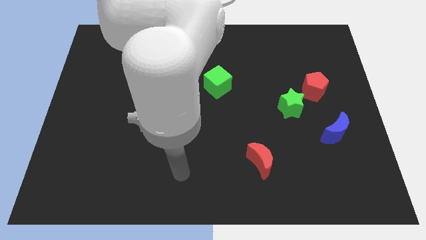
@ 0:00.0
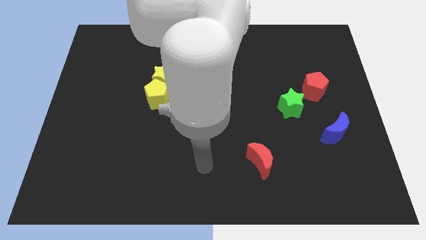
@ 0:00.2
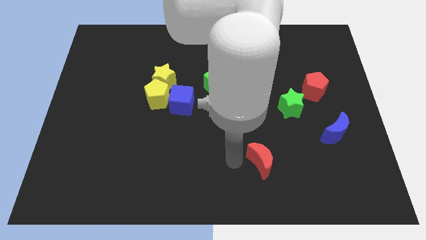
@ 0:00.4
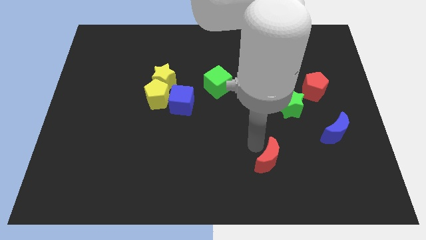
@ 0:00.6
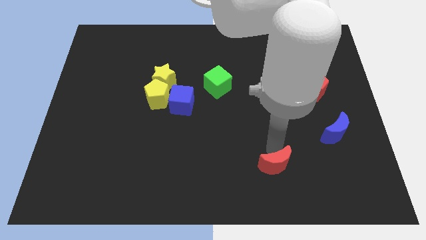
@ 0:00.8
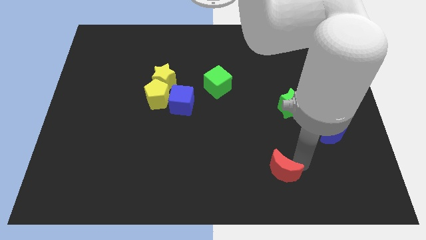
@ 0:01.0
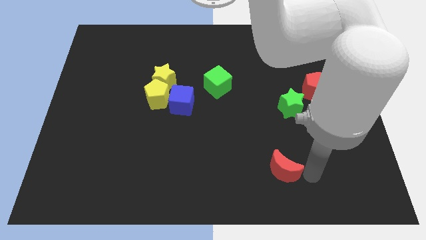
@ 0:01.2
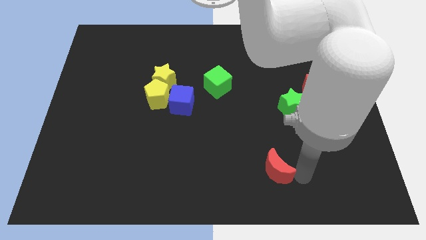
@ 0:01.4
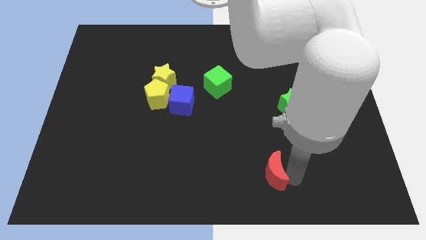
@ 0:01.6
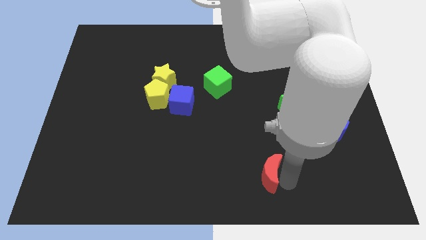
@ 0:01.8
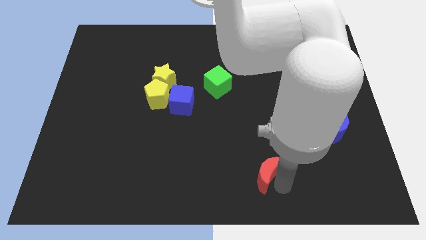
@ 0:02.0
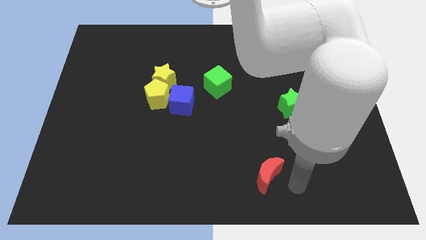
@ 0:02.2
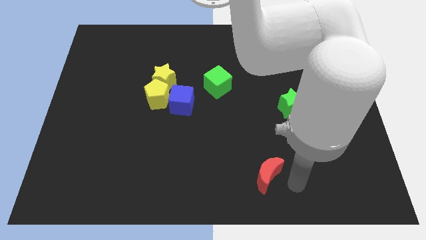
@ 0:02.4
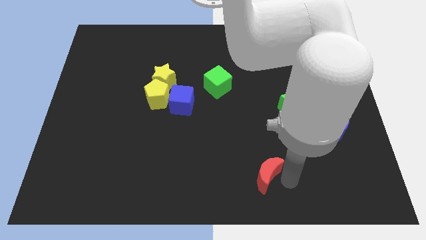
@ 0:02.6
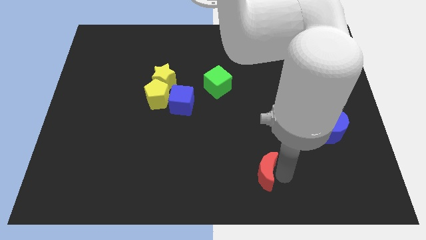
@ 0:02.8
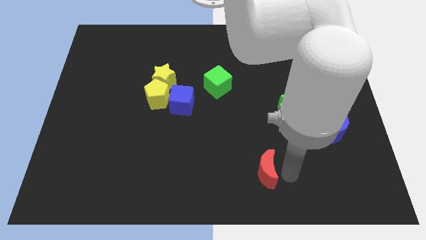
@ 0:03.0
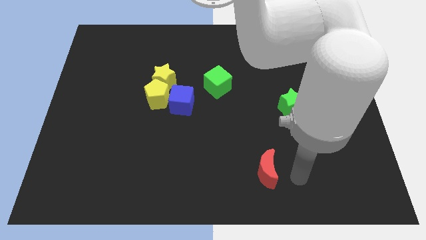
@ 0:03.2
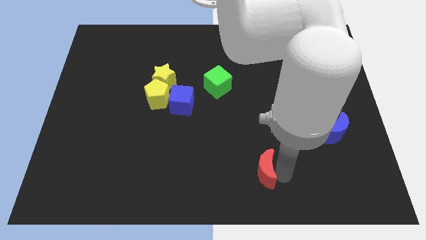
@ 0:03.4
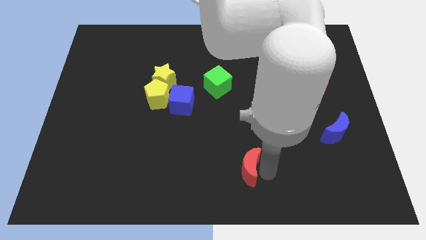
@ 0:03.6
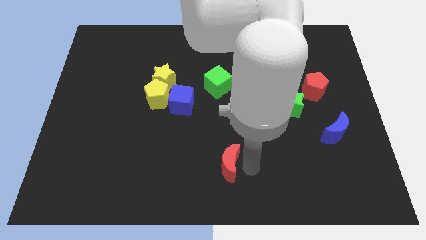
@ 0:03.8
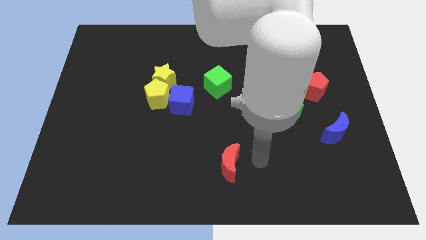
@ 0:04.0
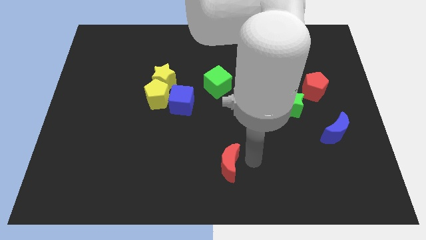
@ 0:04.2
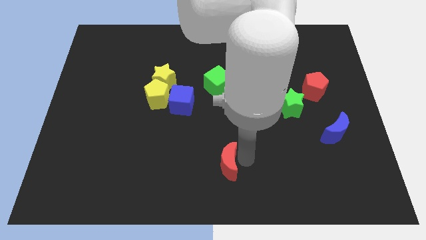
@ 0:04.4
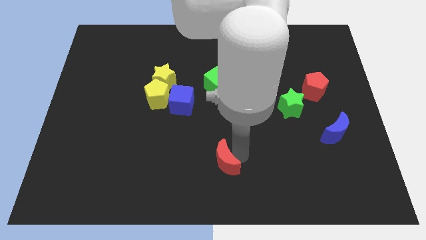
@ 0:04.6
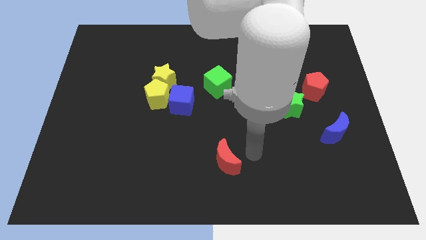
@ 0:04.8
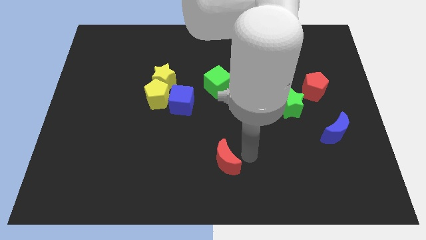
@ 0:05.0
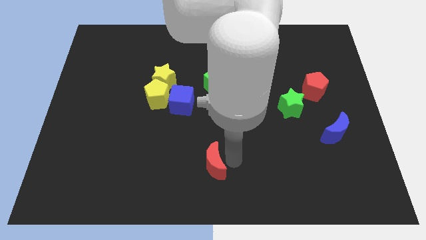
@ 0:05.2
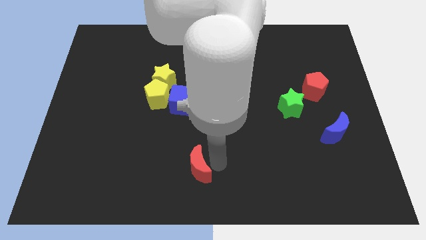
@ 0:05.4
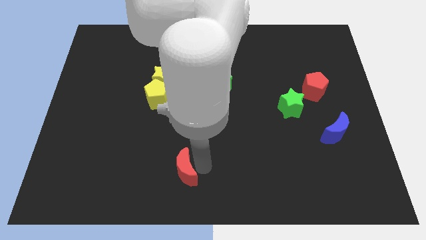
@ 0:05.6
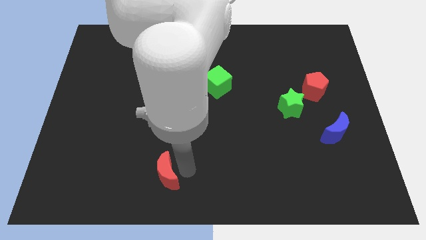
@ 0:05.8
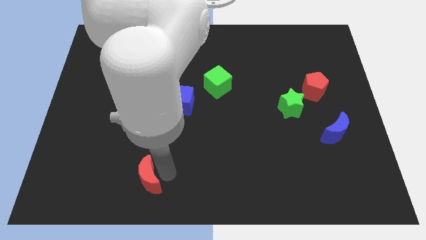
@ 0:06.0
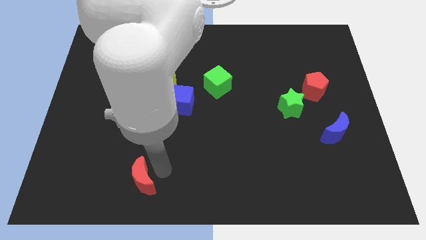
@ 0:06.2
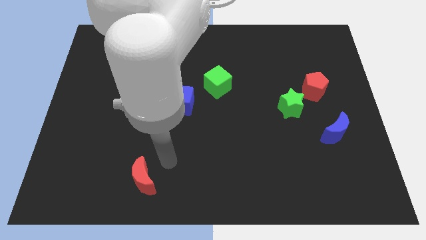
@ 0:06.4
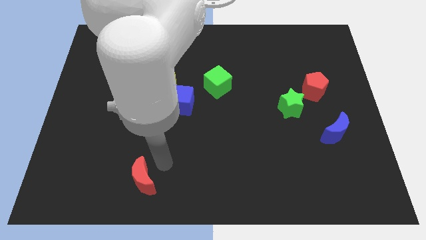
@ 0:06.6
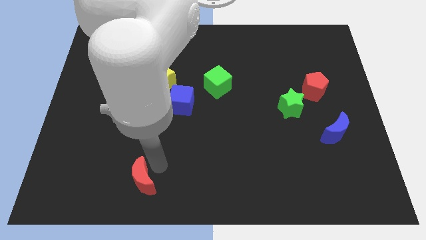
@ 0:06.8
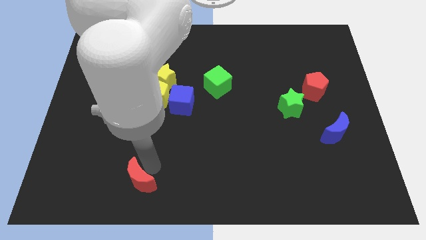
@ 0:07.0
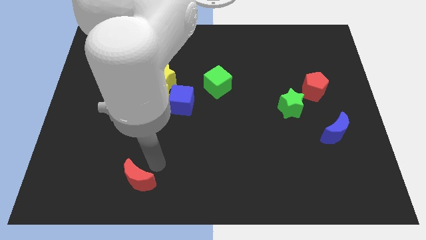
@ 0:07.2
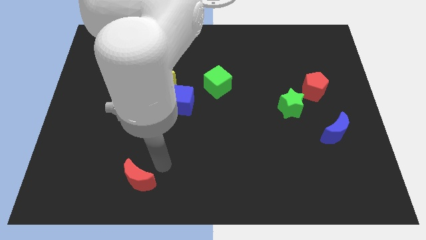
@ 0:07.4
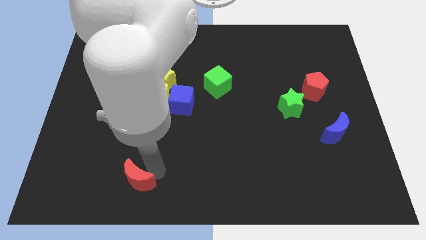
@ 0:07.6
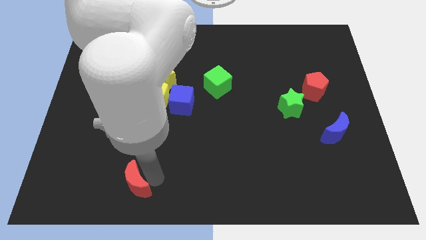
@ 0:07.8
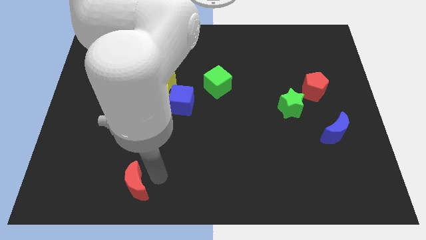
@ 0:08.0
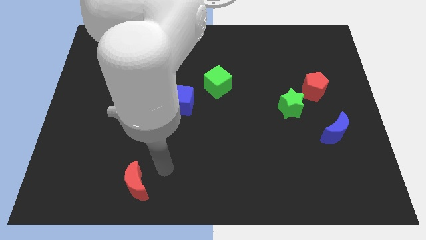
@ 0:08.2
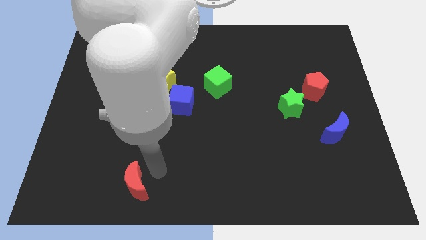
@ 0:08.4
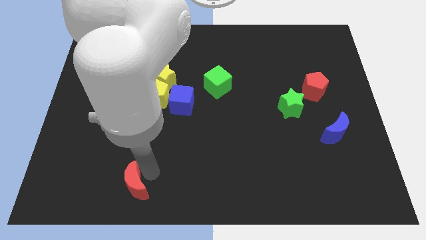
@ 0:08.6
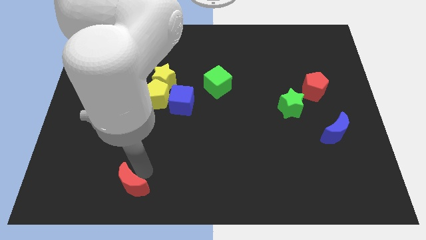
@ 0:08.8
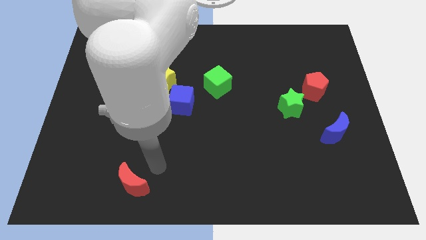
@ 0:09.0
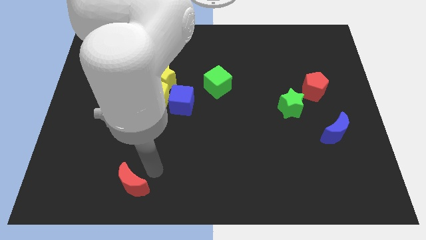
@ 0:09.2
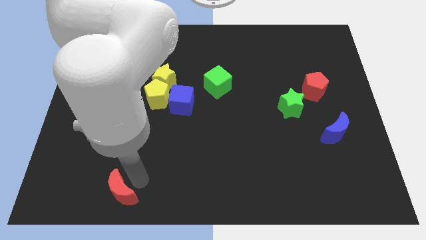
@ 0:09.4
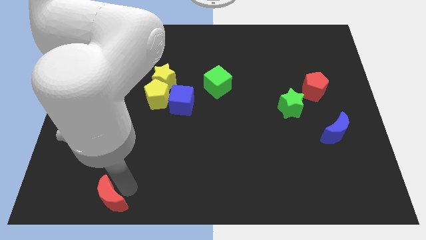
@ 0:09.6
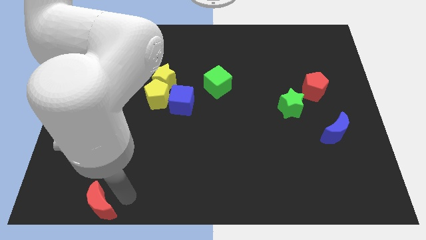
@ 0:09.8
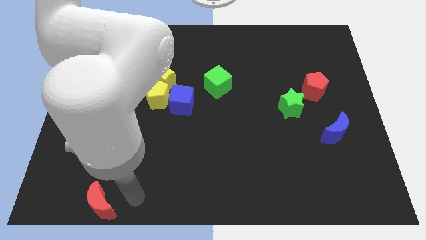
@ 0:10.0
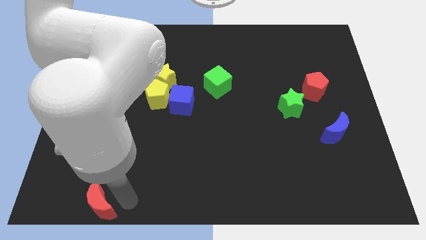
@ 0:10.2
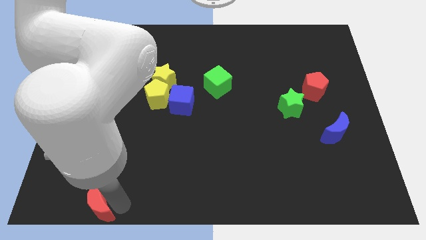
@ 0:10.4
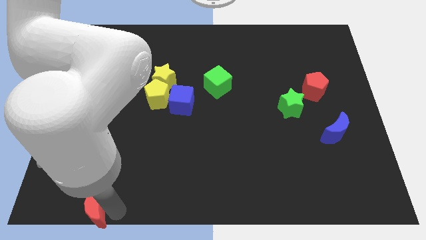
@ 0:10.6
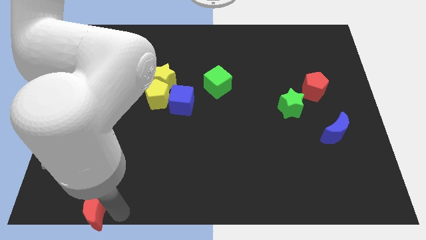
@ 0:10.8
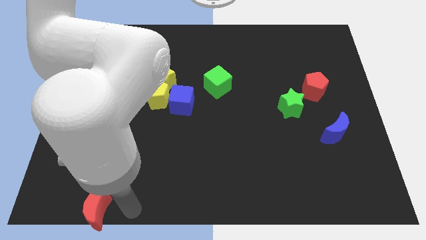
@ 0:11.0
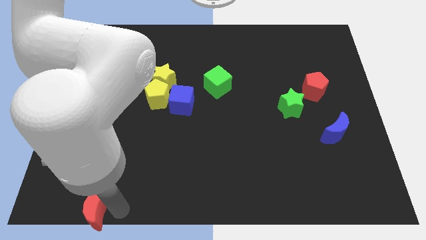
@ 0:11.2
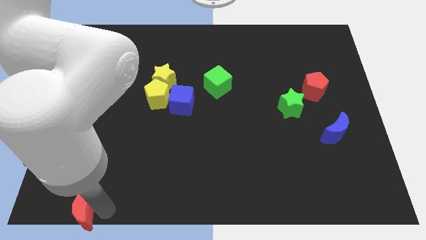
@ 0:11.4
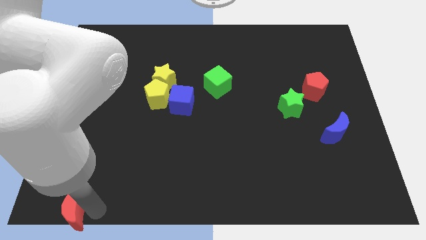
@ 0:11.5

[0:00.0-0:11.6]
slide the red moon to the bottom left corner
